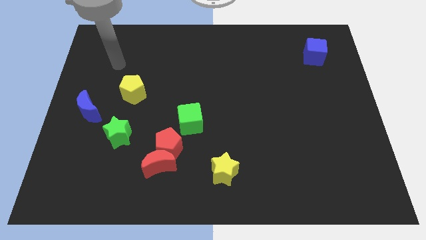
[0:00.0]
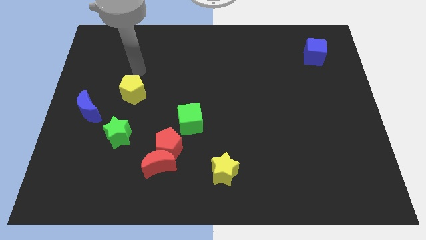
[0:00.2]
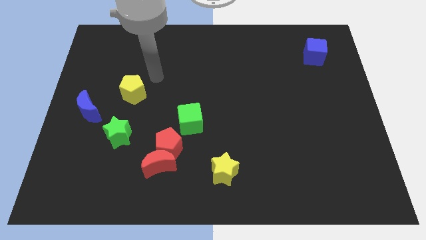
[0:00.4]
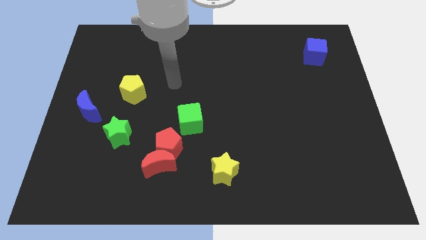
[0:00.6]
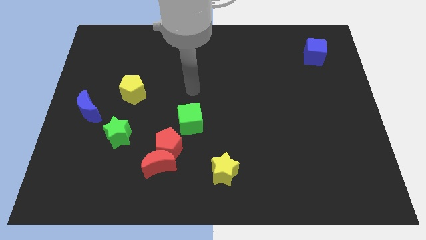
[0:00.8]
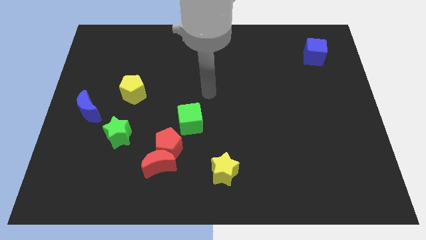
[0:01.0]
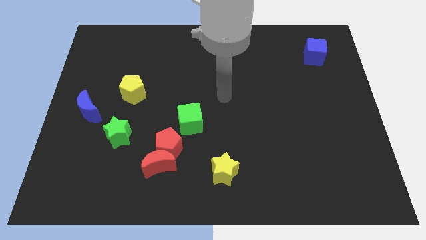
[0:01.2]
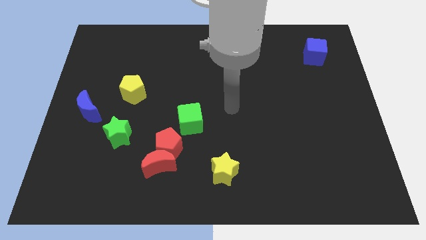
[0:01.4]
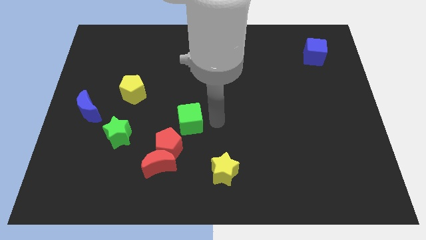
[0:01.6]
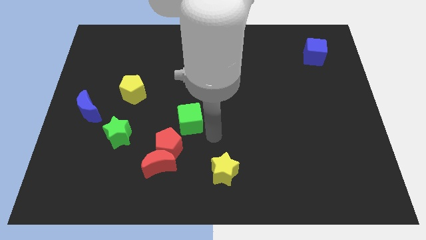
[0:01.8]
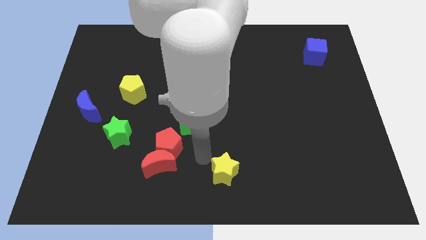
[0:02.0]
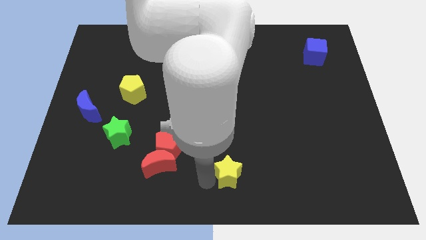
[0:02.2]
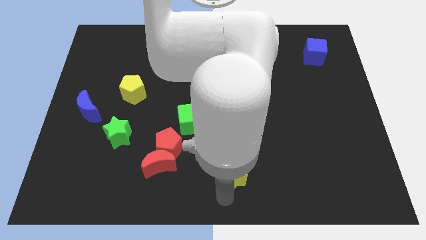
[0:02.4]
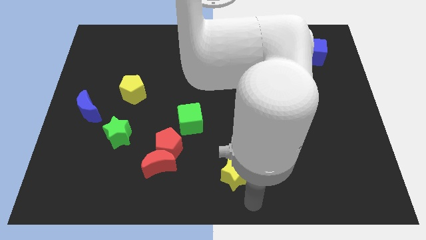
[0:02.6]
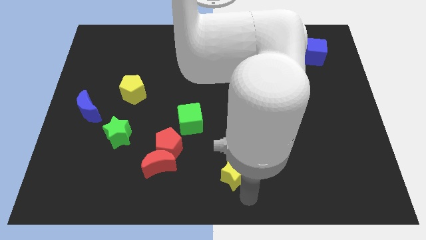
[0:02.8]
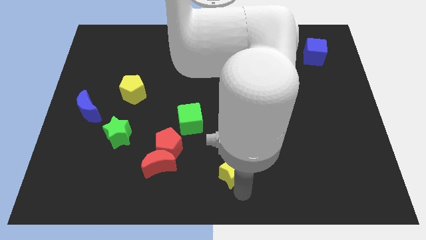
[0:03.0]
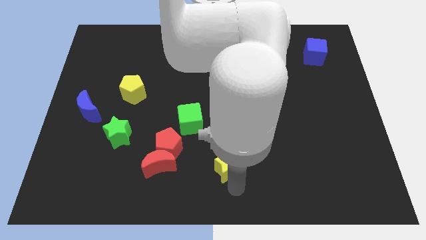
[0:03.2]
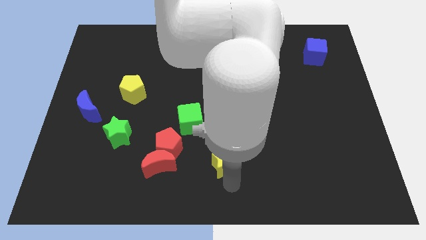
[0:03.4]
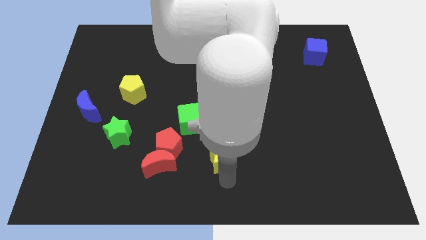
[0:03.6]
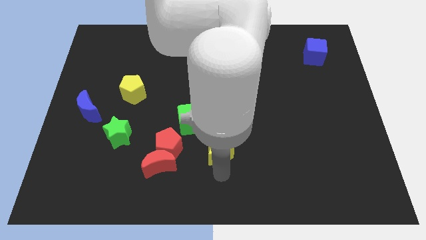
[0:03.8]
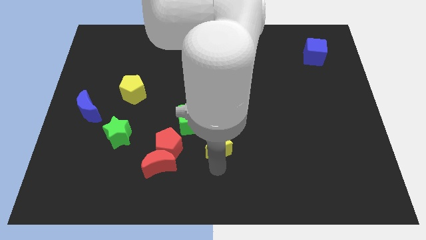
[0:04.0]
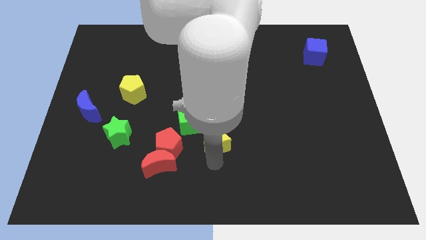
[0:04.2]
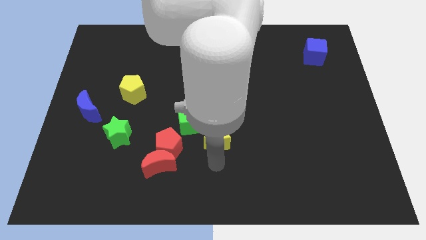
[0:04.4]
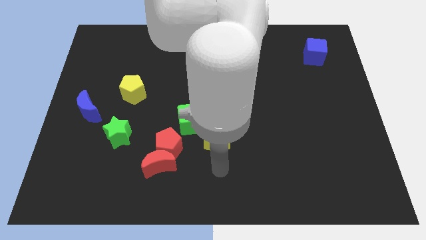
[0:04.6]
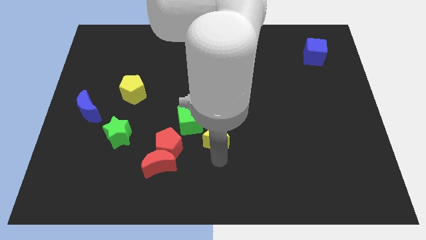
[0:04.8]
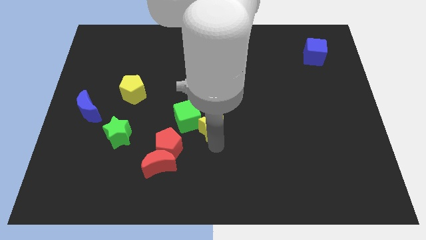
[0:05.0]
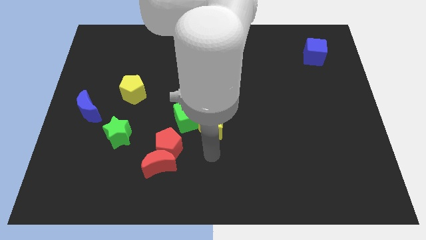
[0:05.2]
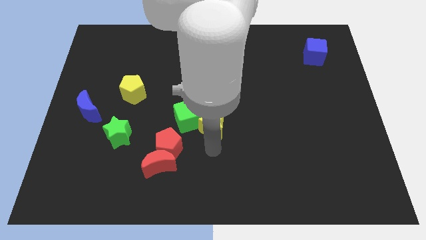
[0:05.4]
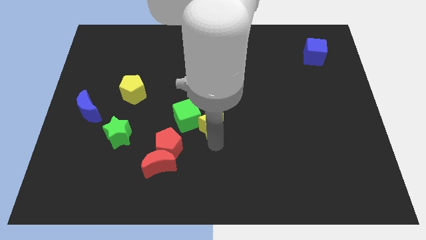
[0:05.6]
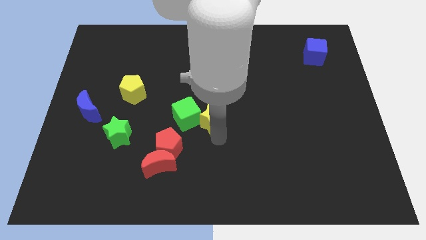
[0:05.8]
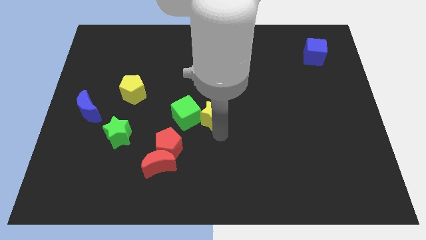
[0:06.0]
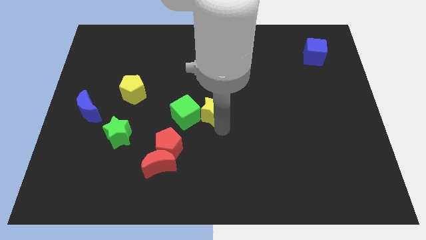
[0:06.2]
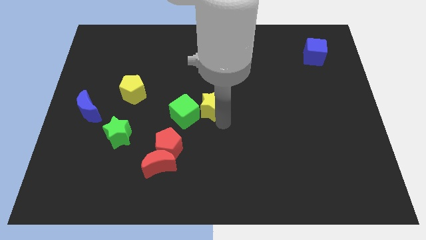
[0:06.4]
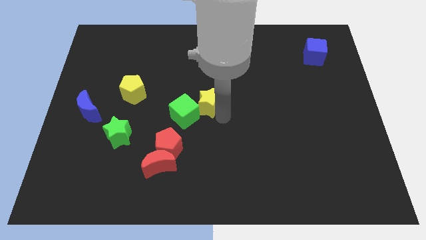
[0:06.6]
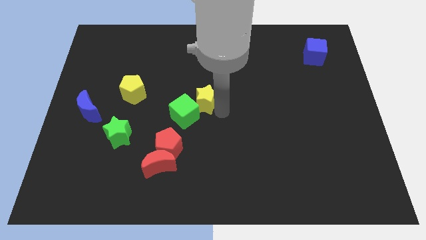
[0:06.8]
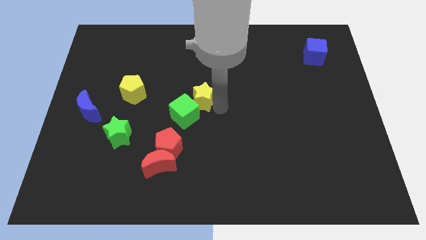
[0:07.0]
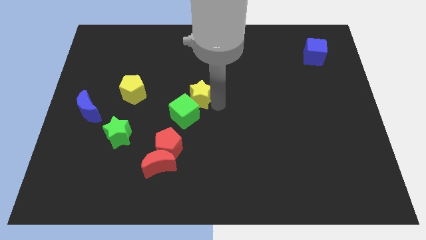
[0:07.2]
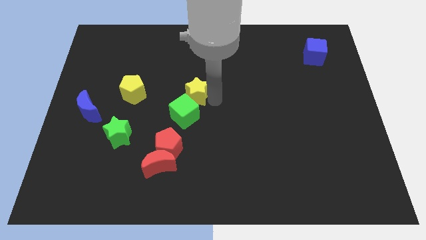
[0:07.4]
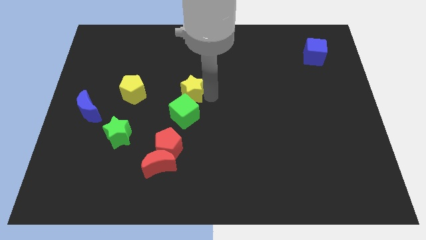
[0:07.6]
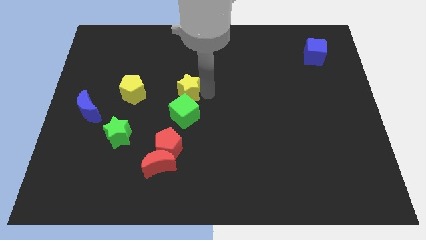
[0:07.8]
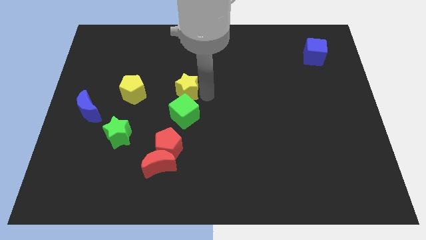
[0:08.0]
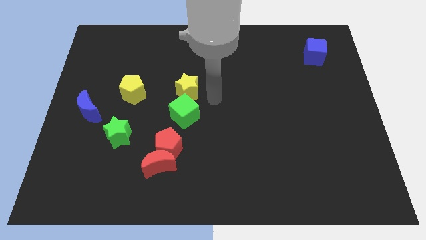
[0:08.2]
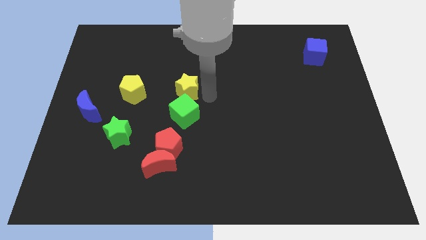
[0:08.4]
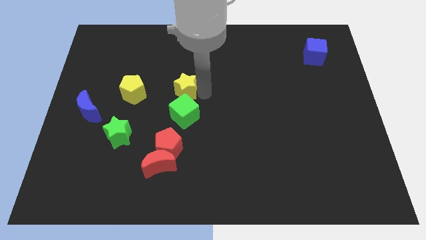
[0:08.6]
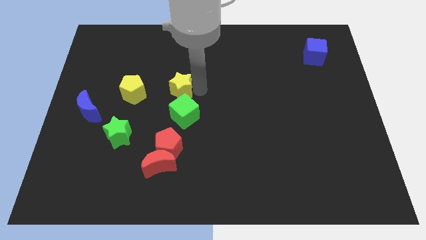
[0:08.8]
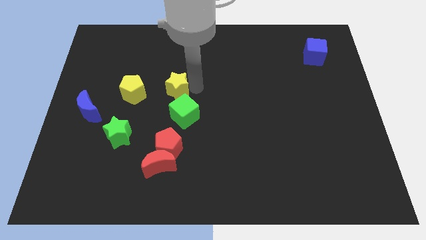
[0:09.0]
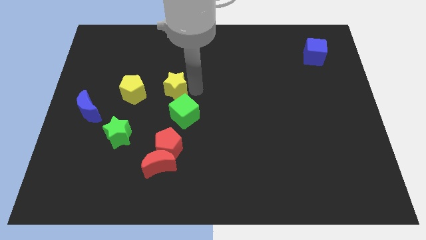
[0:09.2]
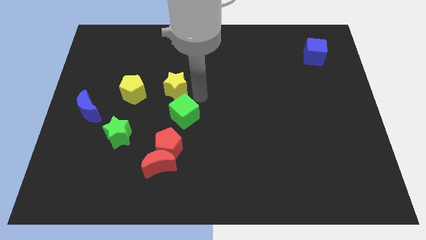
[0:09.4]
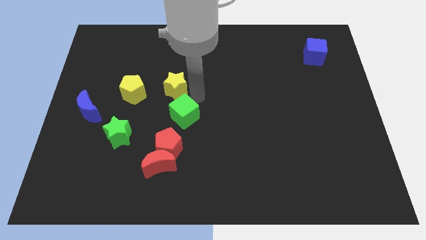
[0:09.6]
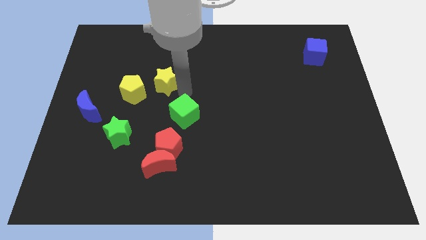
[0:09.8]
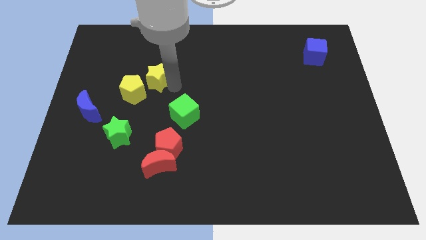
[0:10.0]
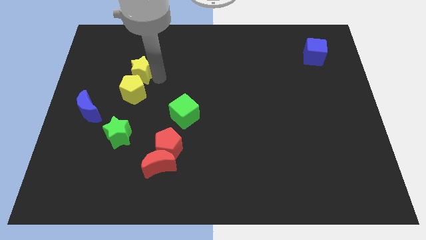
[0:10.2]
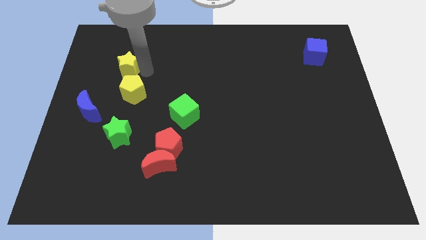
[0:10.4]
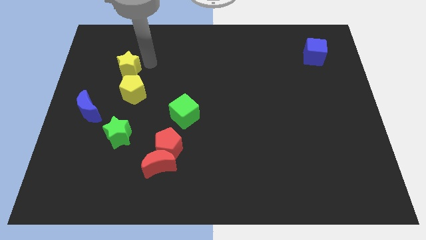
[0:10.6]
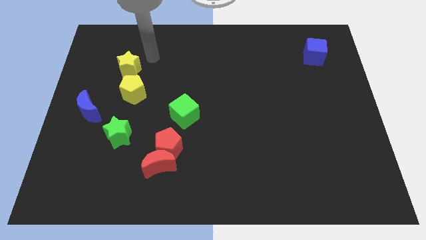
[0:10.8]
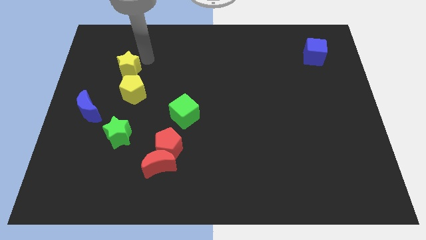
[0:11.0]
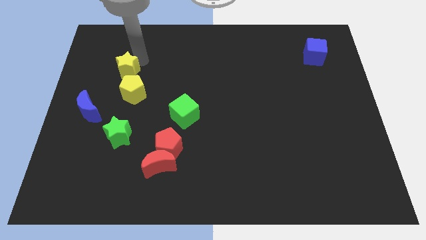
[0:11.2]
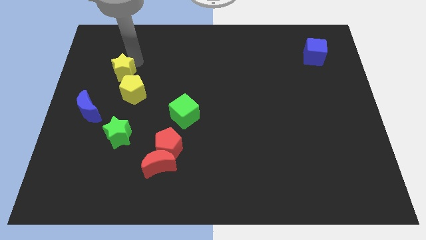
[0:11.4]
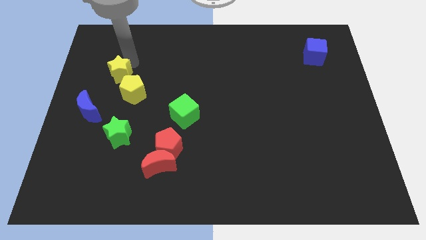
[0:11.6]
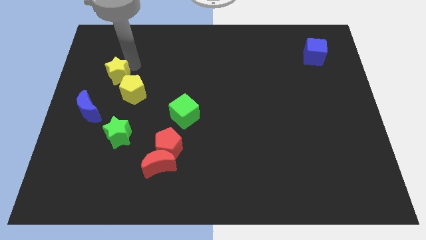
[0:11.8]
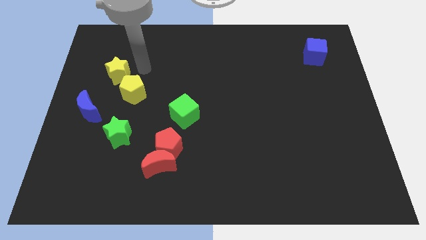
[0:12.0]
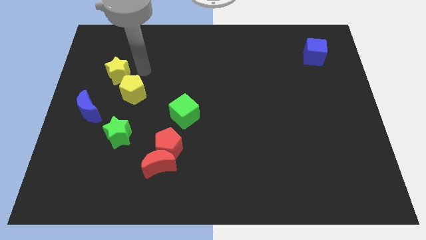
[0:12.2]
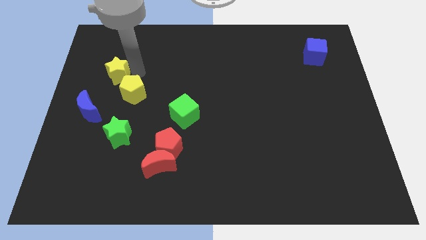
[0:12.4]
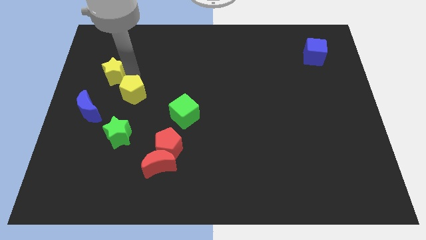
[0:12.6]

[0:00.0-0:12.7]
put the yellow star to the top side of the blue moon
